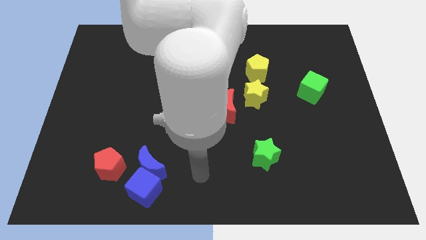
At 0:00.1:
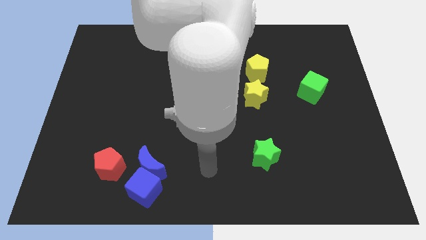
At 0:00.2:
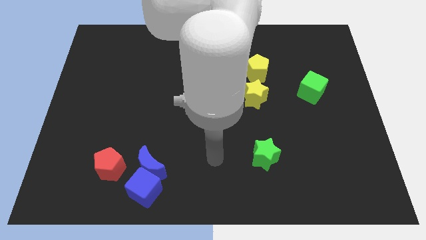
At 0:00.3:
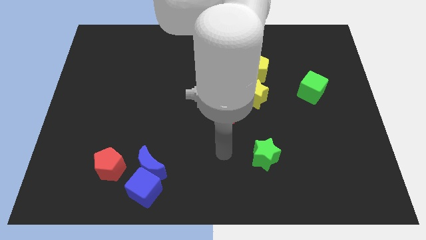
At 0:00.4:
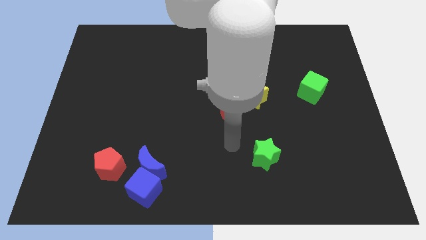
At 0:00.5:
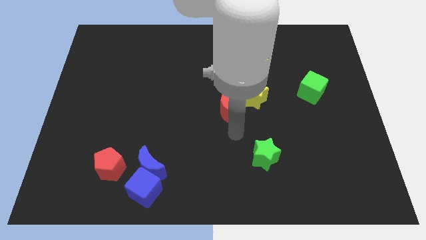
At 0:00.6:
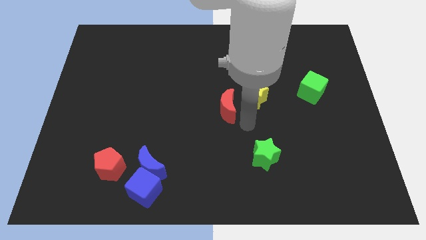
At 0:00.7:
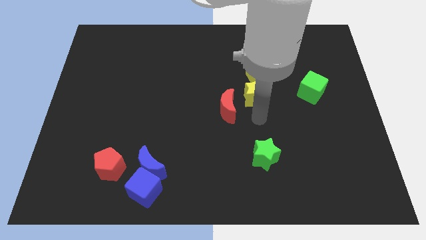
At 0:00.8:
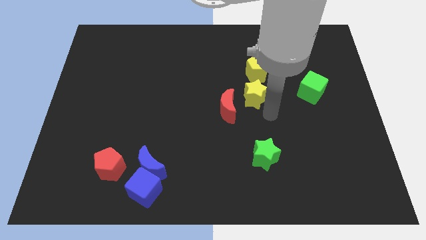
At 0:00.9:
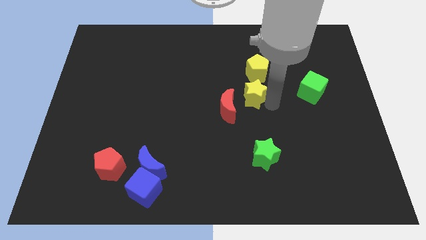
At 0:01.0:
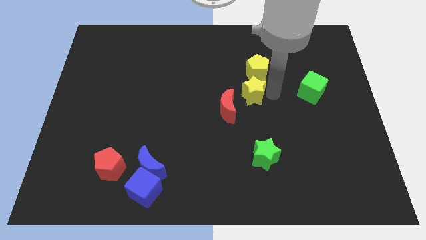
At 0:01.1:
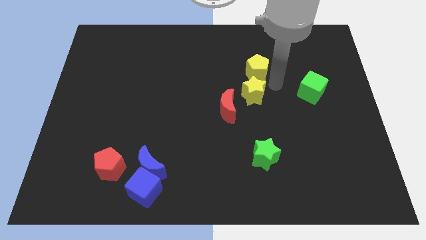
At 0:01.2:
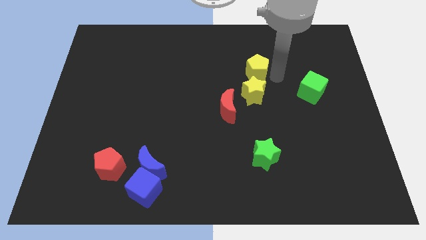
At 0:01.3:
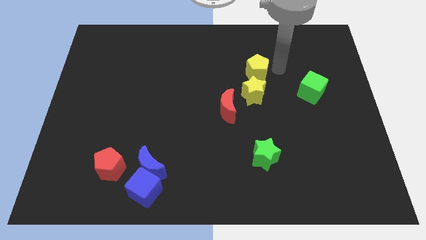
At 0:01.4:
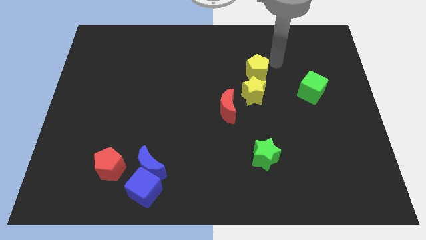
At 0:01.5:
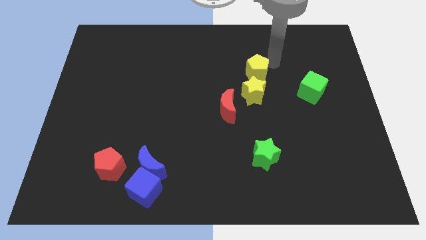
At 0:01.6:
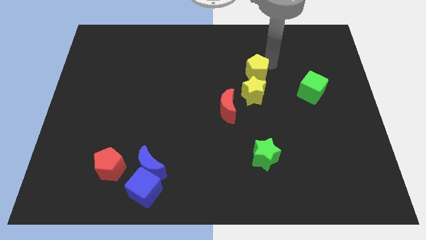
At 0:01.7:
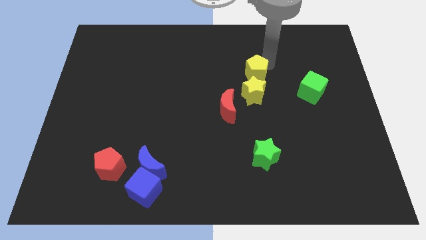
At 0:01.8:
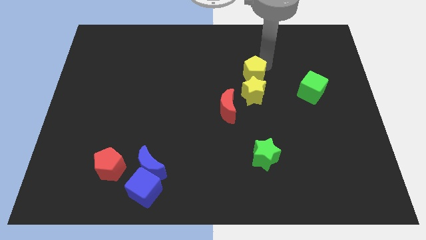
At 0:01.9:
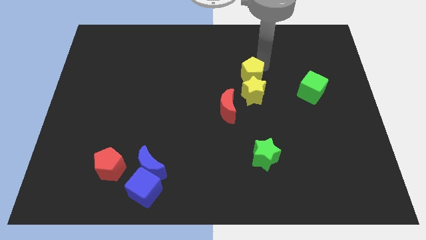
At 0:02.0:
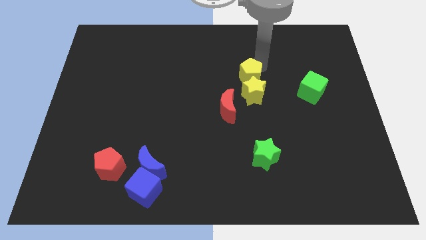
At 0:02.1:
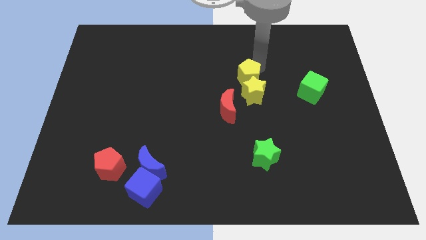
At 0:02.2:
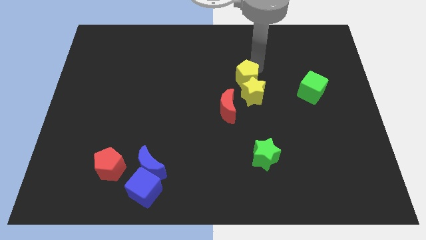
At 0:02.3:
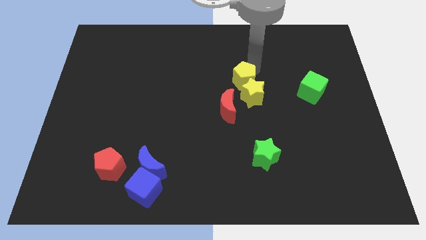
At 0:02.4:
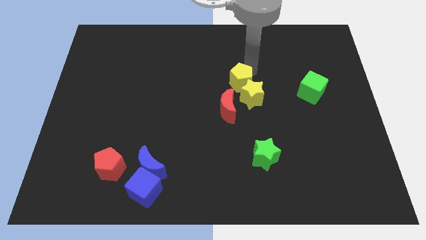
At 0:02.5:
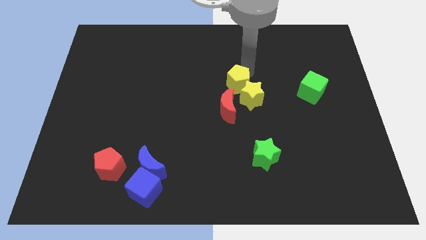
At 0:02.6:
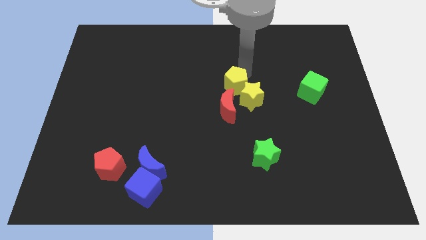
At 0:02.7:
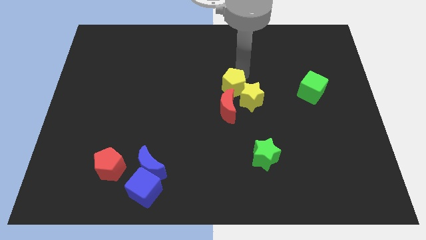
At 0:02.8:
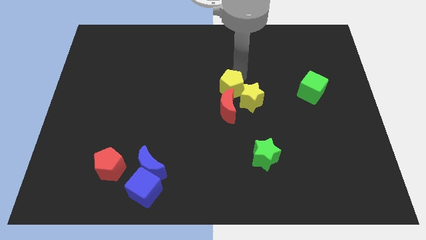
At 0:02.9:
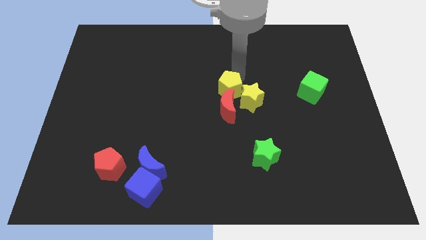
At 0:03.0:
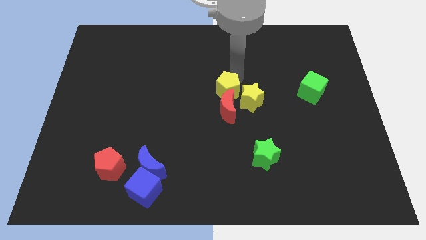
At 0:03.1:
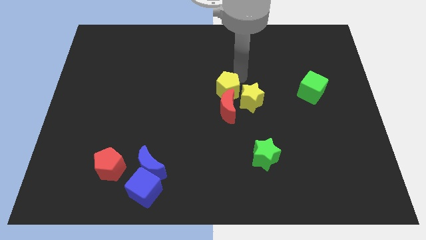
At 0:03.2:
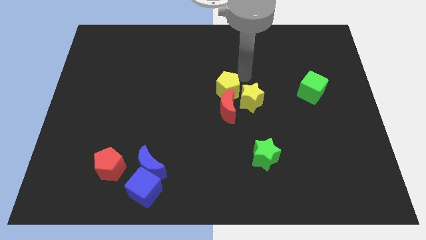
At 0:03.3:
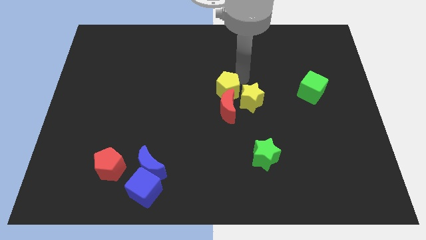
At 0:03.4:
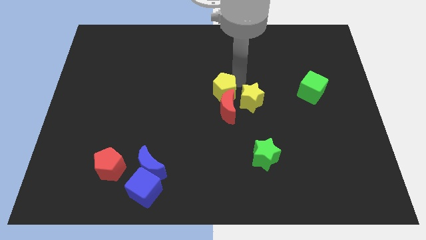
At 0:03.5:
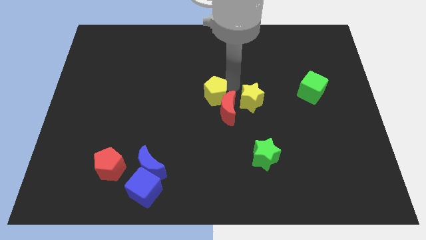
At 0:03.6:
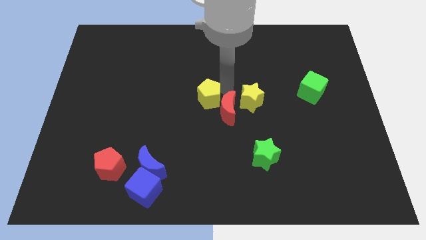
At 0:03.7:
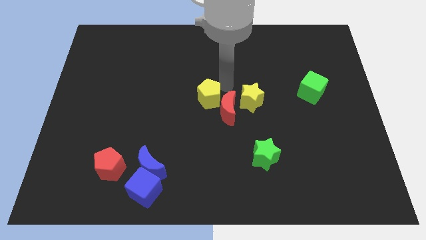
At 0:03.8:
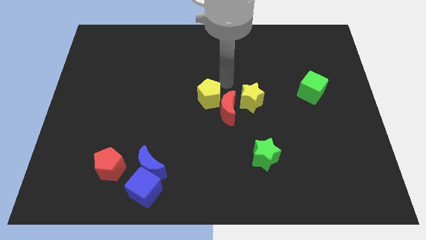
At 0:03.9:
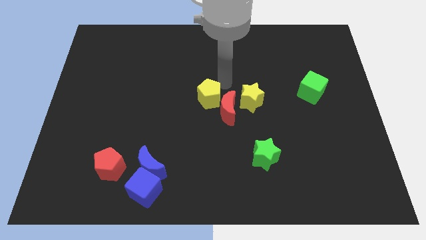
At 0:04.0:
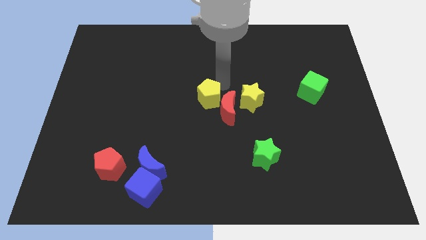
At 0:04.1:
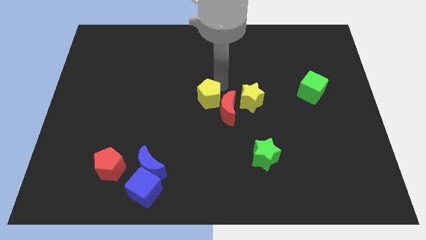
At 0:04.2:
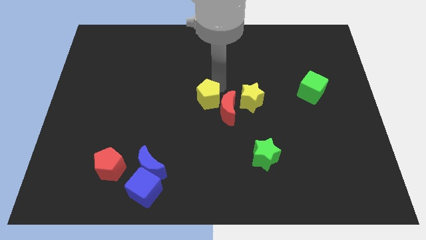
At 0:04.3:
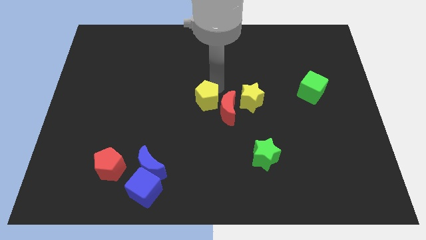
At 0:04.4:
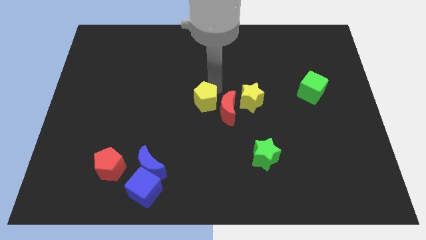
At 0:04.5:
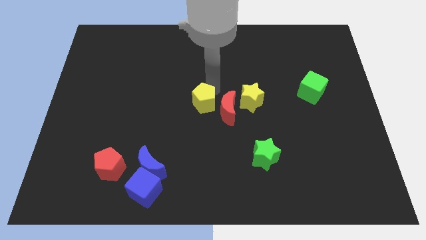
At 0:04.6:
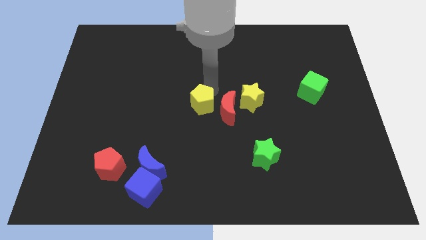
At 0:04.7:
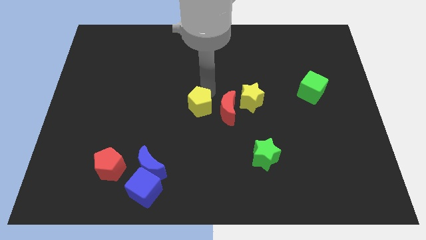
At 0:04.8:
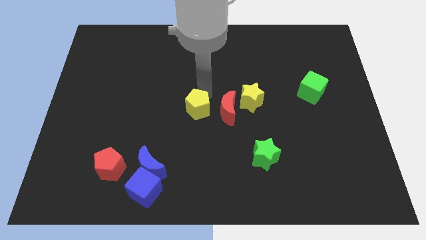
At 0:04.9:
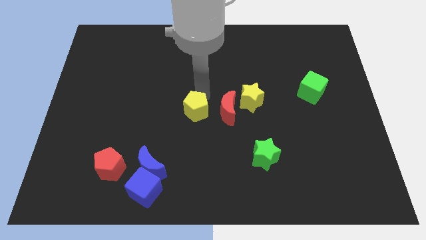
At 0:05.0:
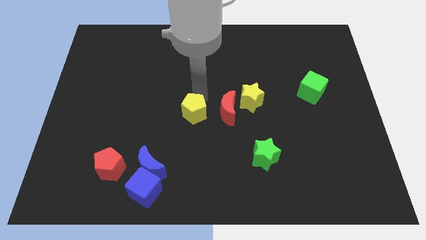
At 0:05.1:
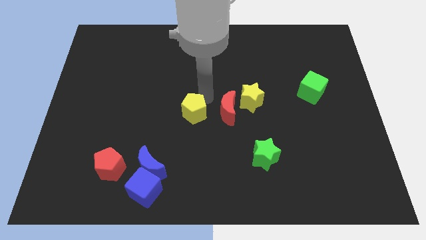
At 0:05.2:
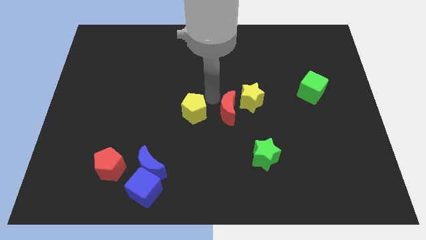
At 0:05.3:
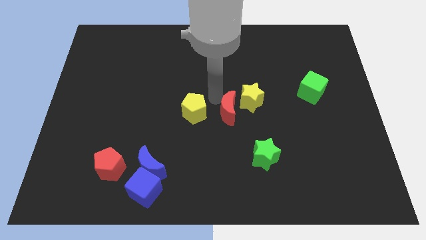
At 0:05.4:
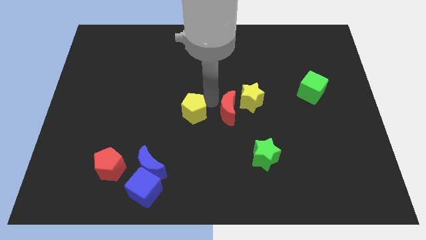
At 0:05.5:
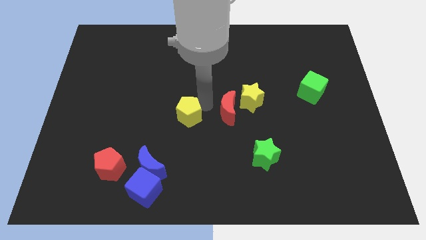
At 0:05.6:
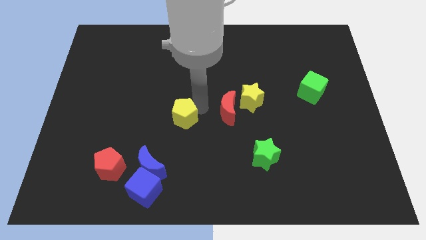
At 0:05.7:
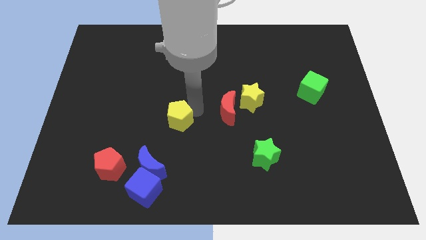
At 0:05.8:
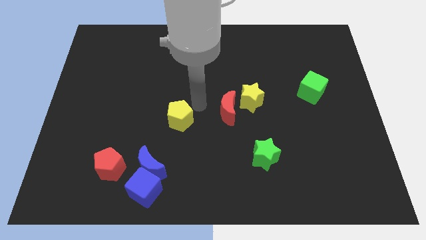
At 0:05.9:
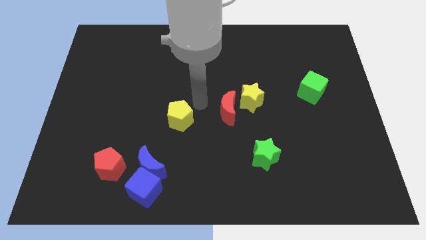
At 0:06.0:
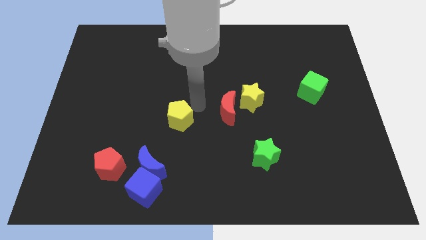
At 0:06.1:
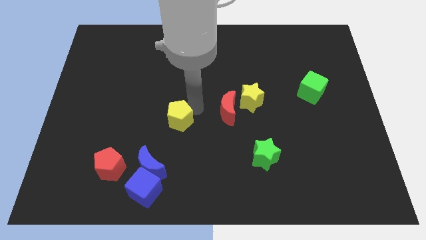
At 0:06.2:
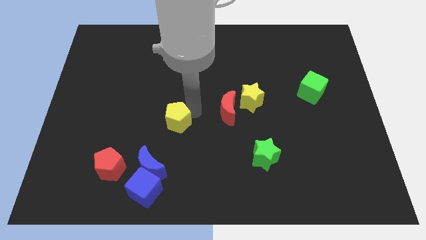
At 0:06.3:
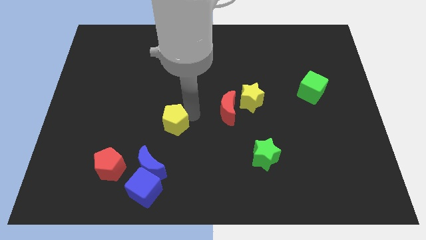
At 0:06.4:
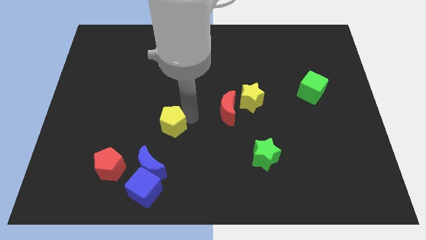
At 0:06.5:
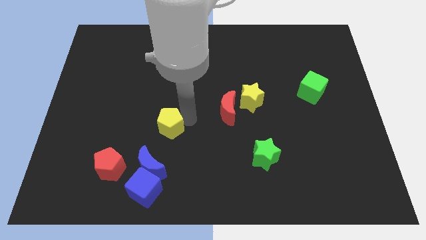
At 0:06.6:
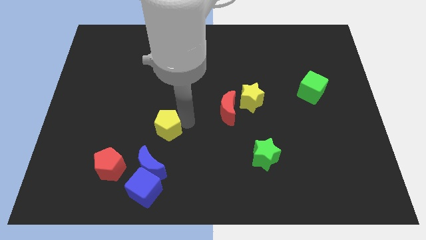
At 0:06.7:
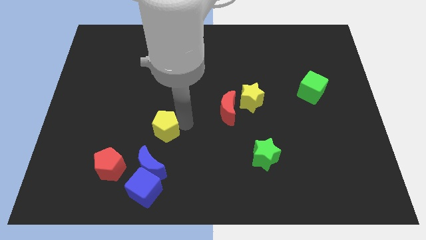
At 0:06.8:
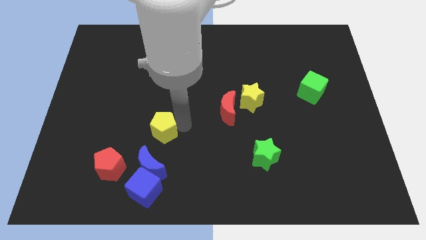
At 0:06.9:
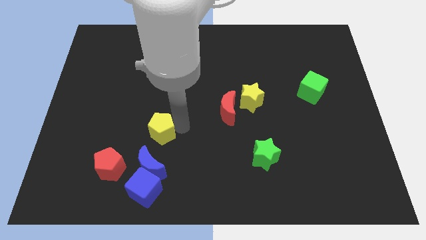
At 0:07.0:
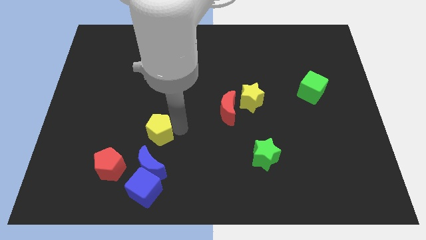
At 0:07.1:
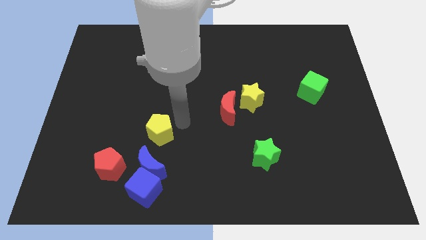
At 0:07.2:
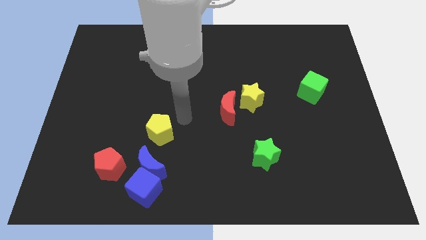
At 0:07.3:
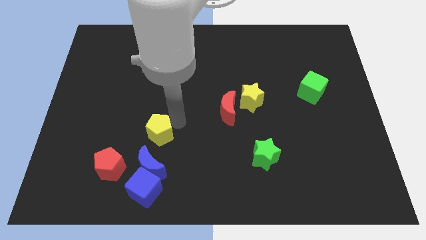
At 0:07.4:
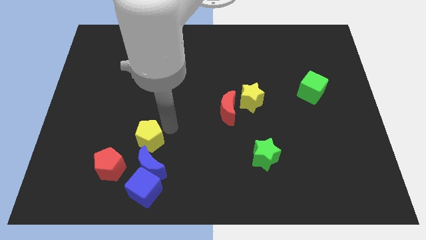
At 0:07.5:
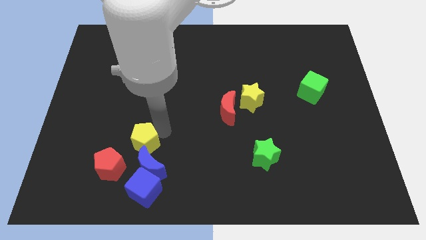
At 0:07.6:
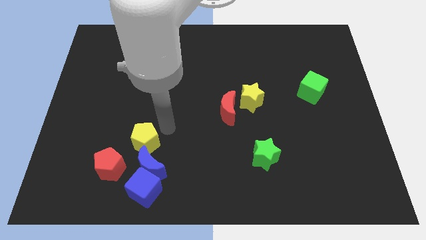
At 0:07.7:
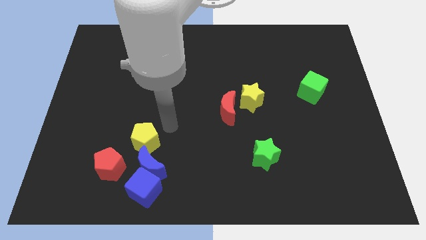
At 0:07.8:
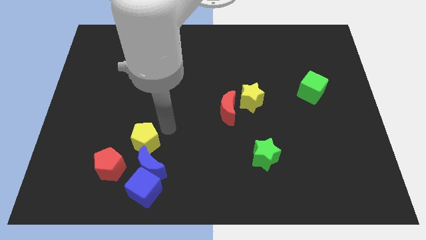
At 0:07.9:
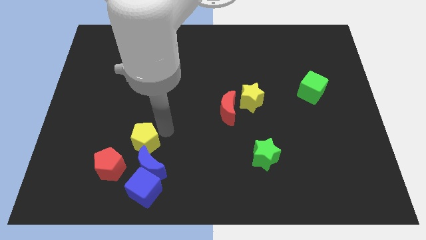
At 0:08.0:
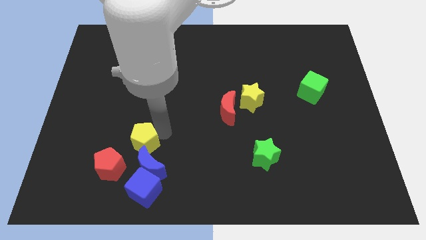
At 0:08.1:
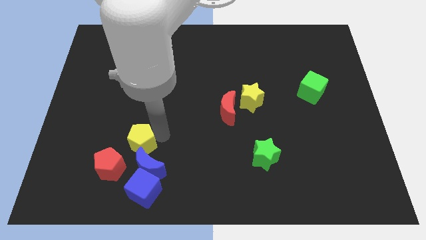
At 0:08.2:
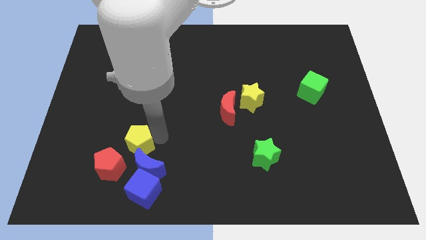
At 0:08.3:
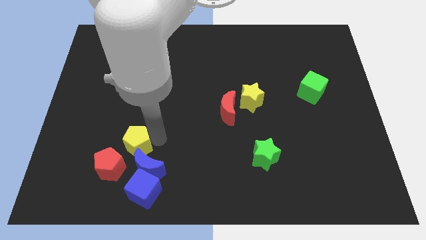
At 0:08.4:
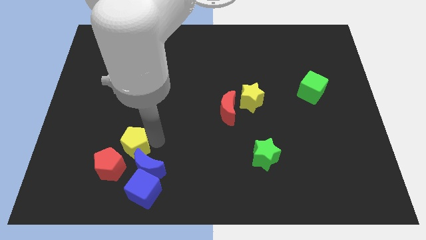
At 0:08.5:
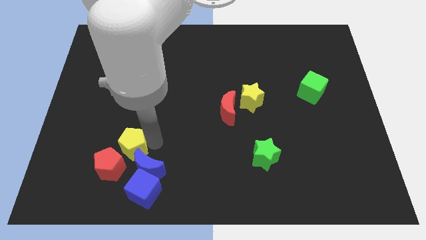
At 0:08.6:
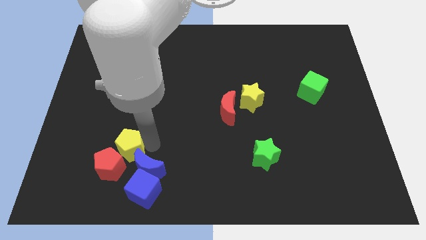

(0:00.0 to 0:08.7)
slide the yellow pentagon close to the red pentagon
